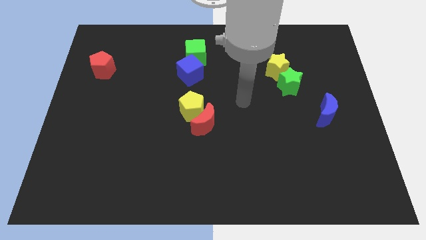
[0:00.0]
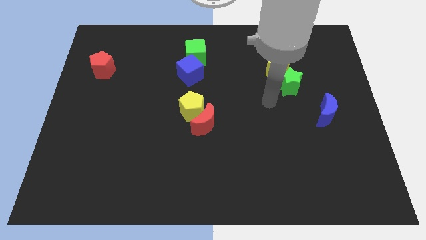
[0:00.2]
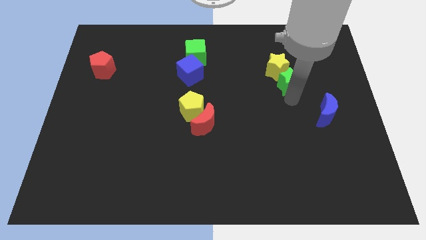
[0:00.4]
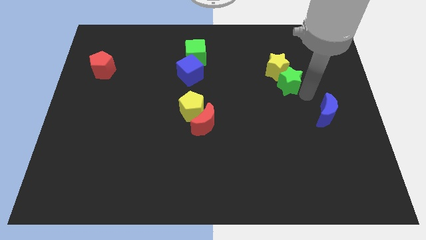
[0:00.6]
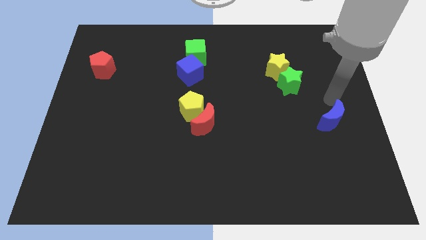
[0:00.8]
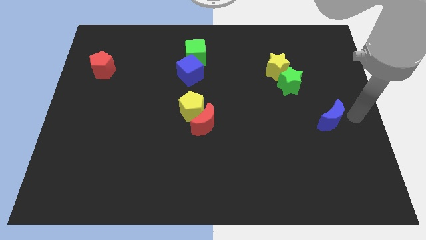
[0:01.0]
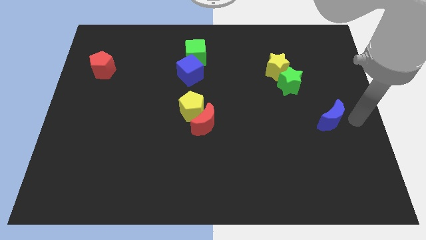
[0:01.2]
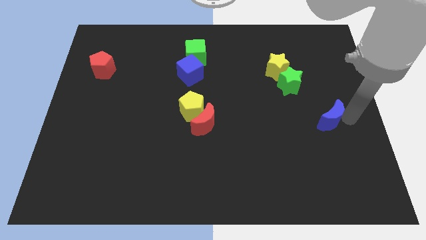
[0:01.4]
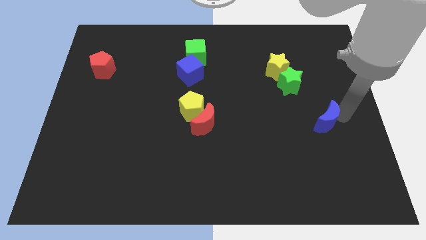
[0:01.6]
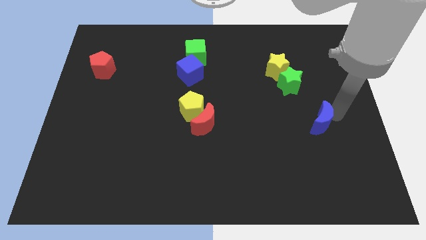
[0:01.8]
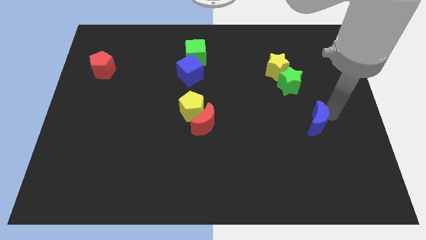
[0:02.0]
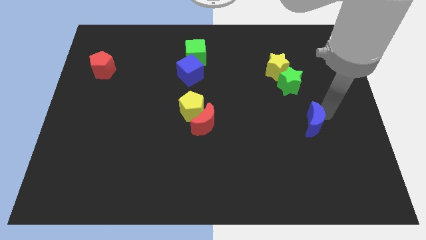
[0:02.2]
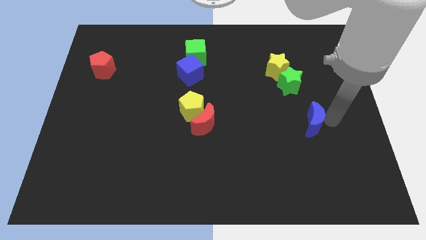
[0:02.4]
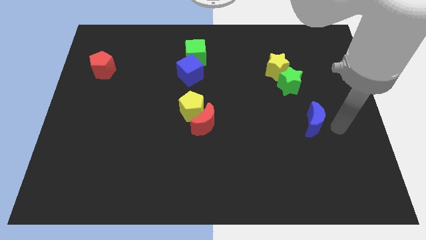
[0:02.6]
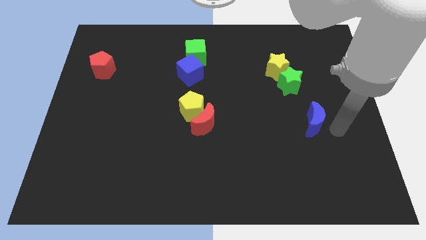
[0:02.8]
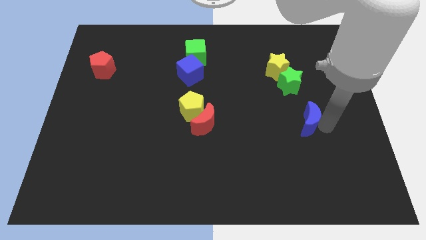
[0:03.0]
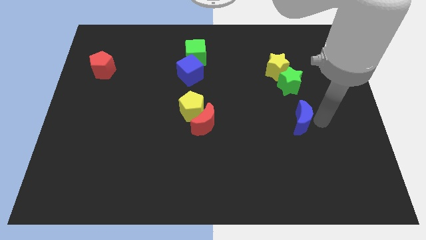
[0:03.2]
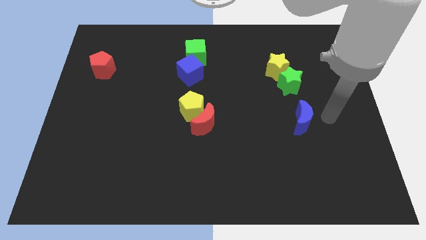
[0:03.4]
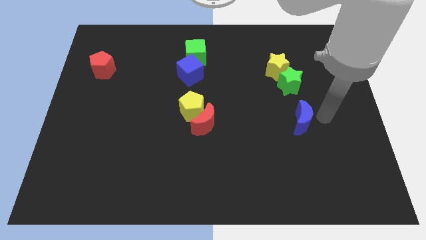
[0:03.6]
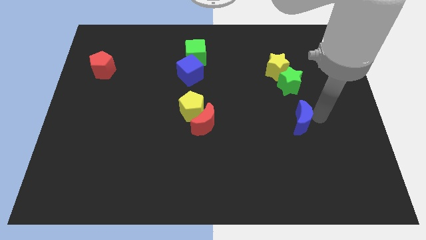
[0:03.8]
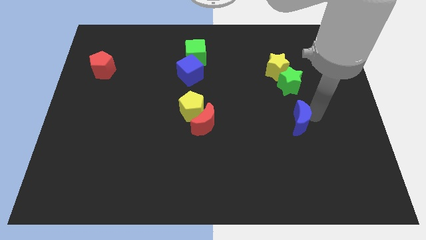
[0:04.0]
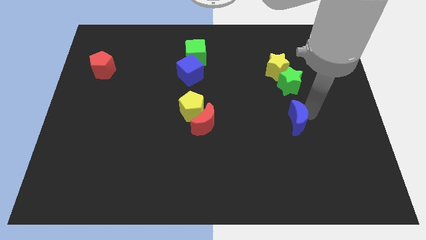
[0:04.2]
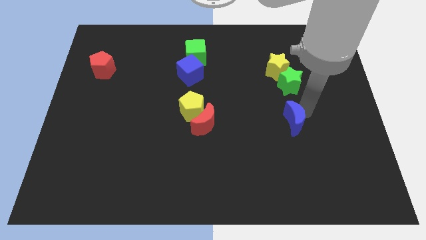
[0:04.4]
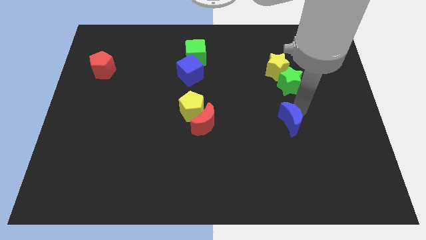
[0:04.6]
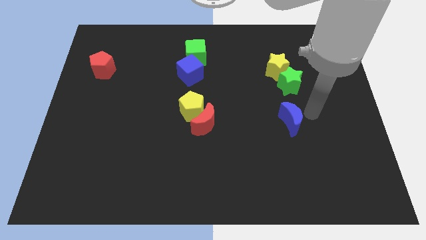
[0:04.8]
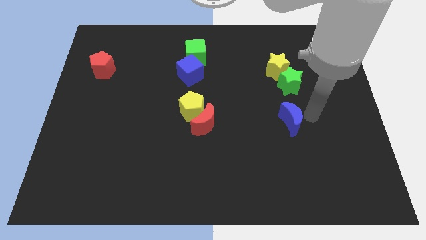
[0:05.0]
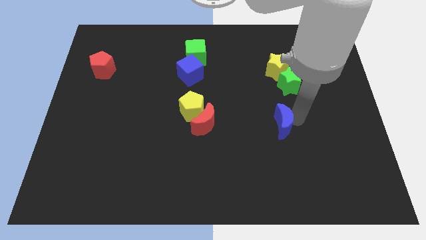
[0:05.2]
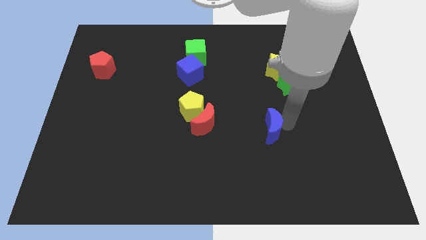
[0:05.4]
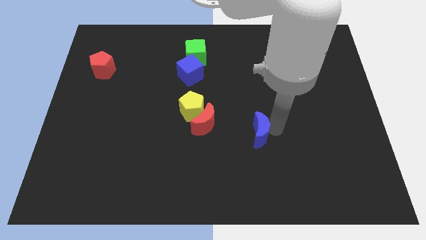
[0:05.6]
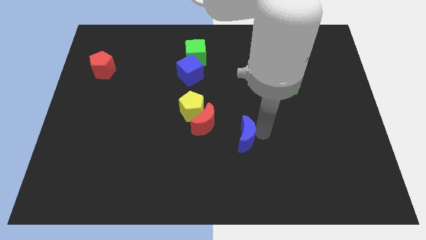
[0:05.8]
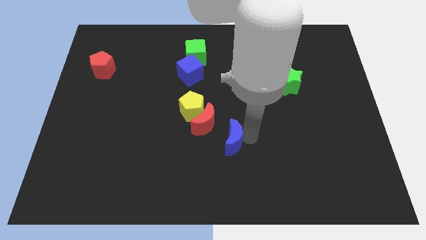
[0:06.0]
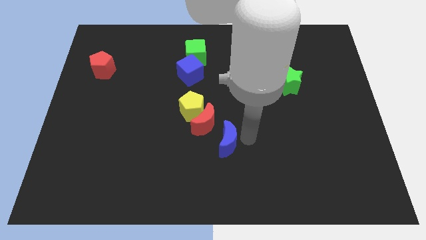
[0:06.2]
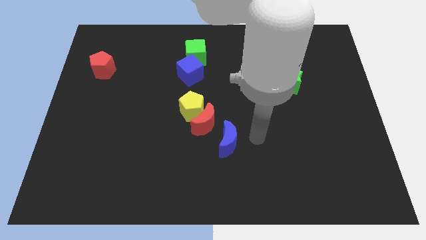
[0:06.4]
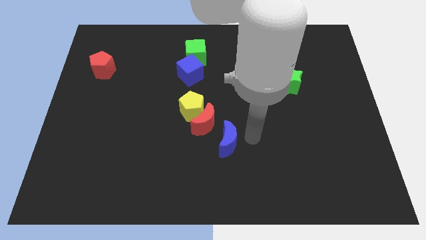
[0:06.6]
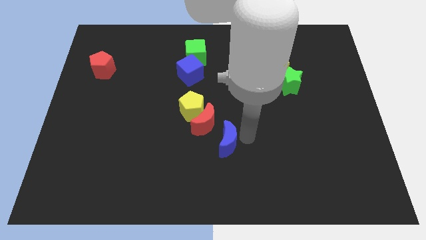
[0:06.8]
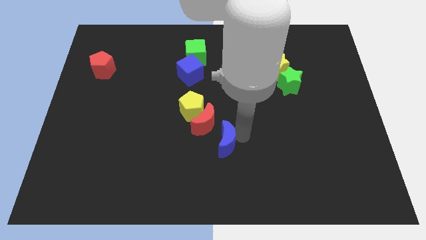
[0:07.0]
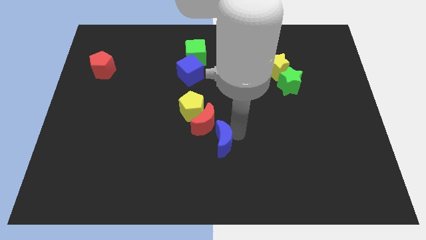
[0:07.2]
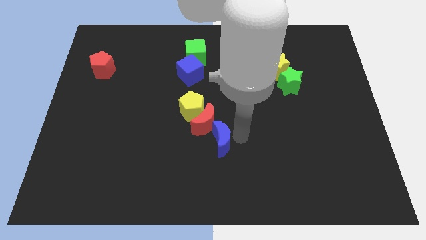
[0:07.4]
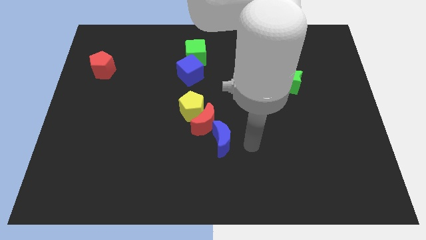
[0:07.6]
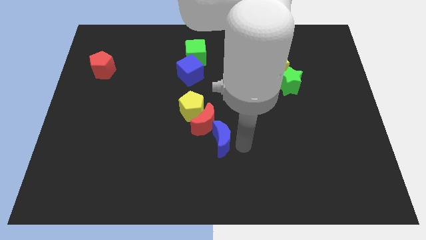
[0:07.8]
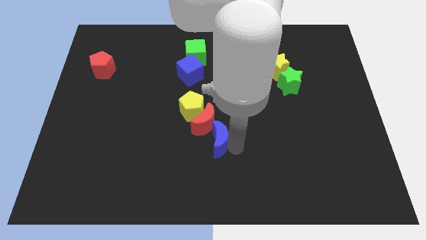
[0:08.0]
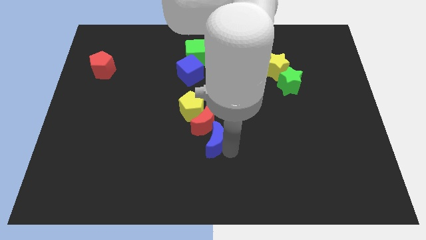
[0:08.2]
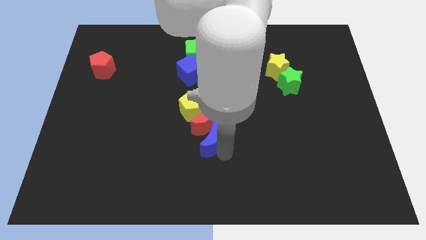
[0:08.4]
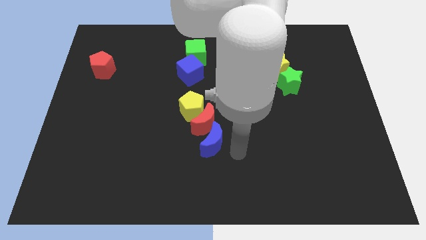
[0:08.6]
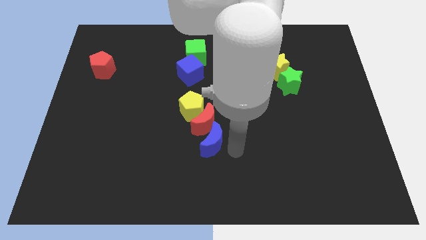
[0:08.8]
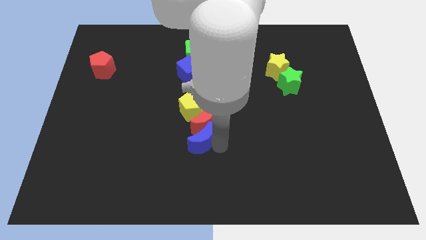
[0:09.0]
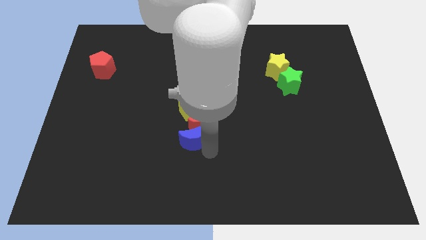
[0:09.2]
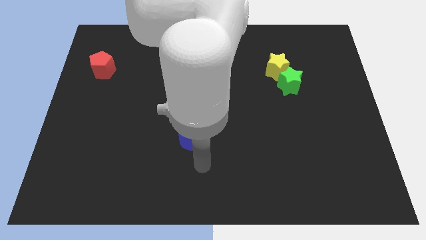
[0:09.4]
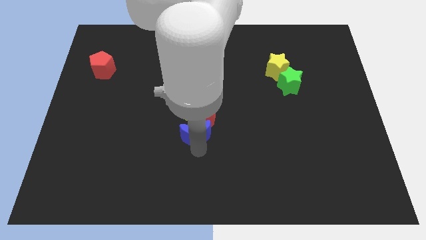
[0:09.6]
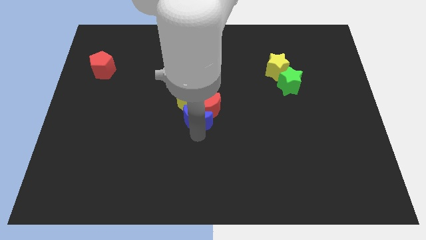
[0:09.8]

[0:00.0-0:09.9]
put the blue moon below the blue cube

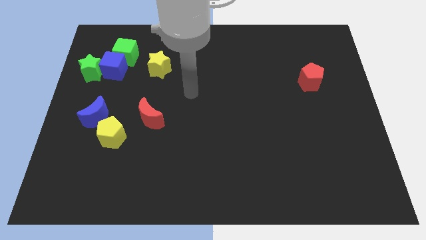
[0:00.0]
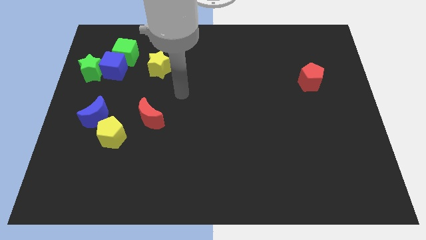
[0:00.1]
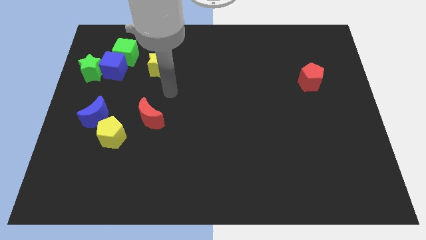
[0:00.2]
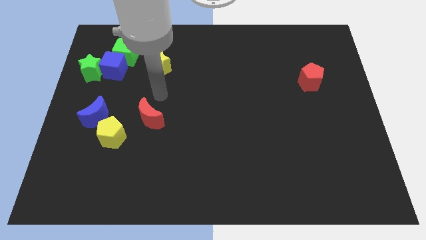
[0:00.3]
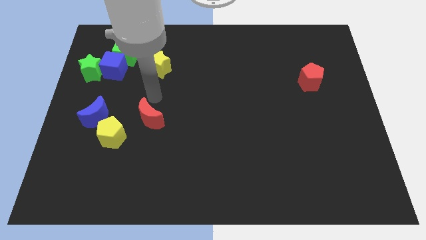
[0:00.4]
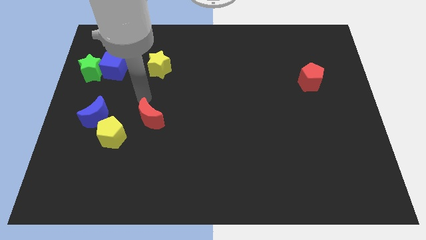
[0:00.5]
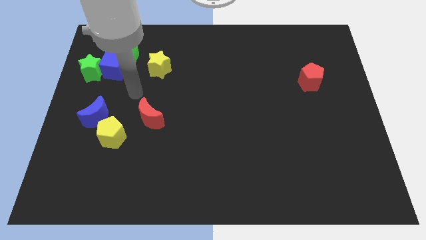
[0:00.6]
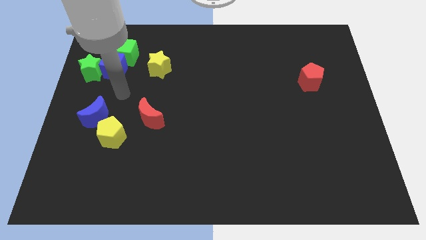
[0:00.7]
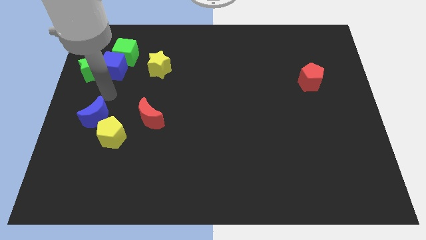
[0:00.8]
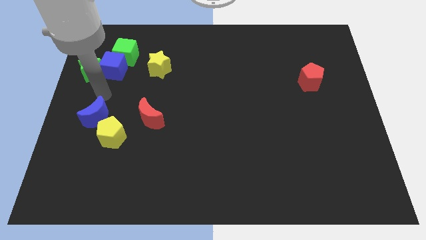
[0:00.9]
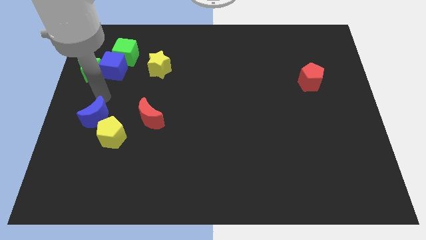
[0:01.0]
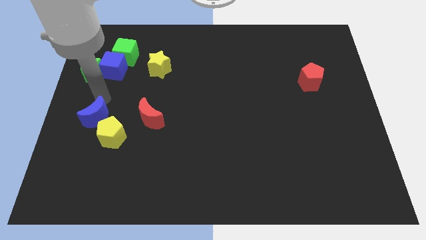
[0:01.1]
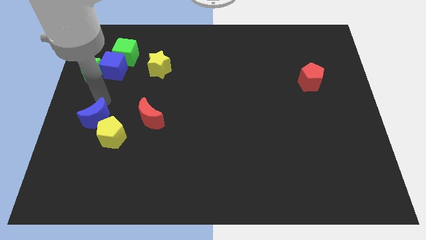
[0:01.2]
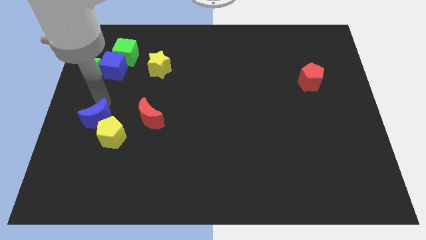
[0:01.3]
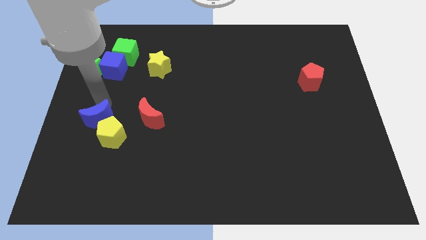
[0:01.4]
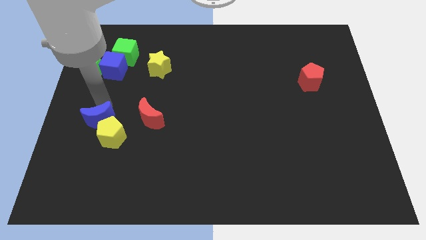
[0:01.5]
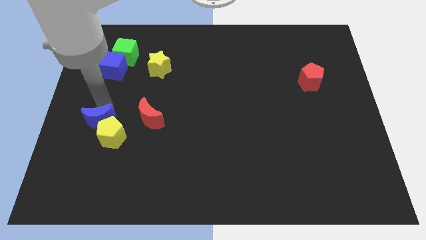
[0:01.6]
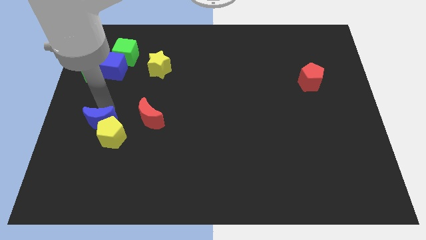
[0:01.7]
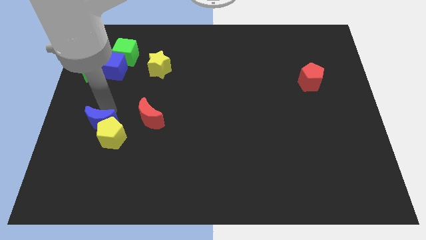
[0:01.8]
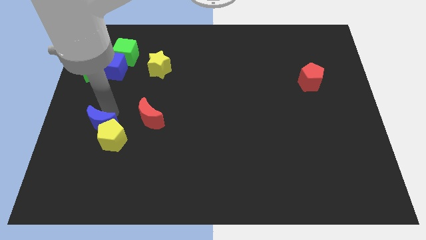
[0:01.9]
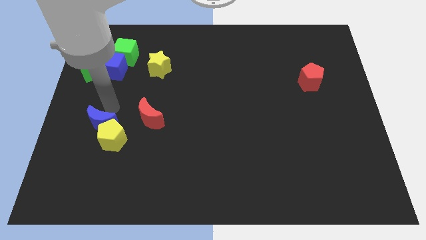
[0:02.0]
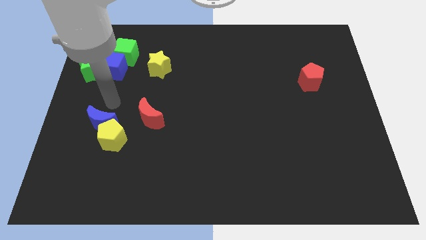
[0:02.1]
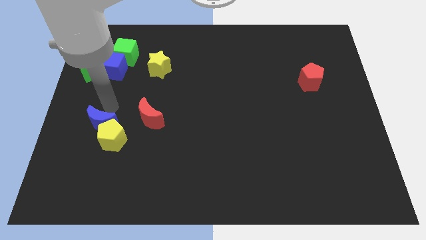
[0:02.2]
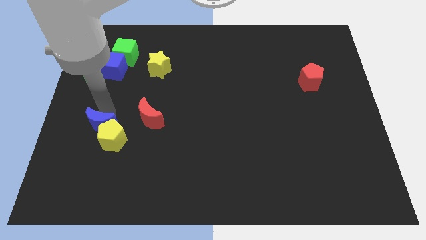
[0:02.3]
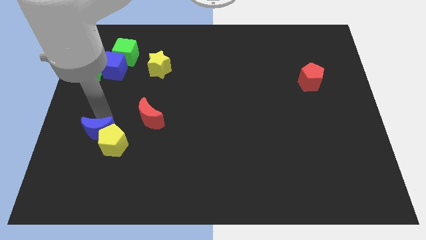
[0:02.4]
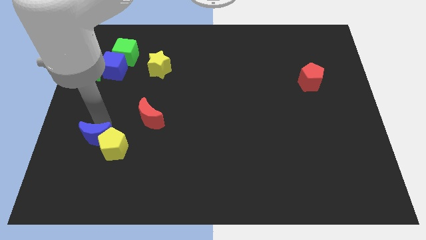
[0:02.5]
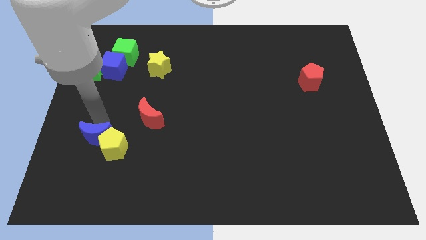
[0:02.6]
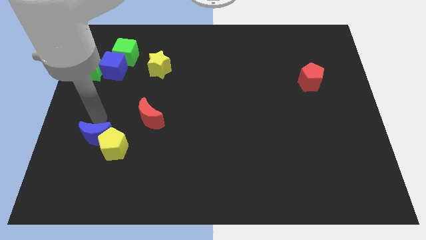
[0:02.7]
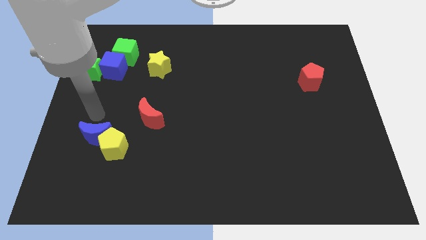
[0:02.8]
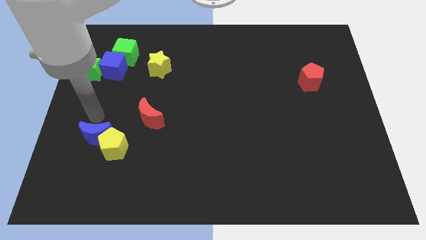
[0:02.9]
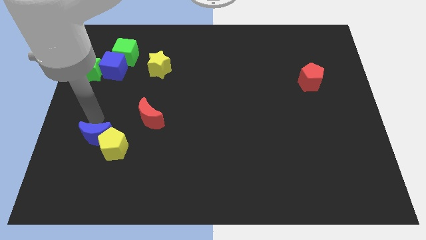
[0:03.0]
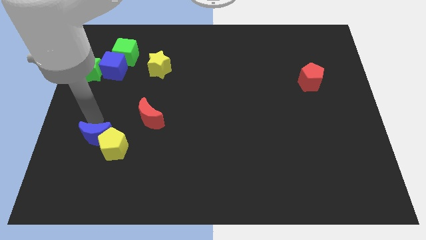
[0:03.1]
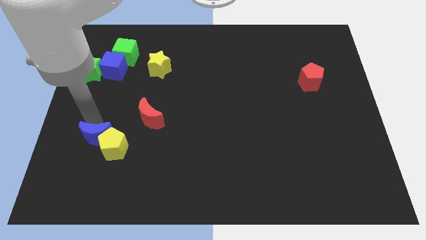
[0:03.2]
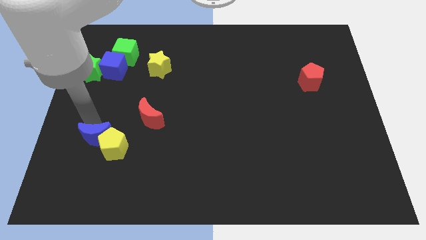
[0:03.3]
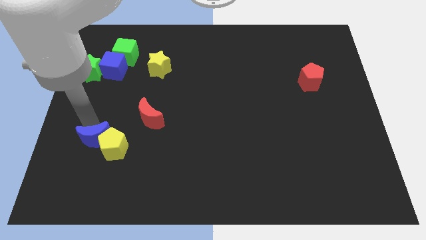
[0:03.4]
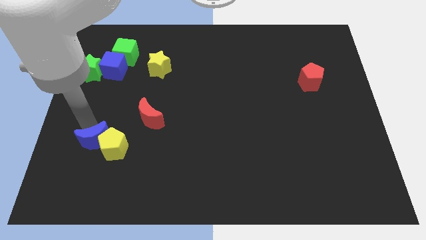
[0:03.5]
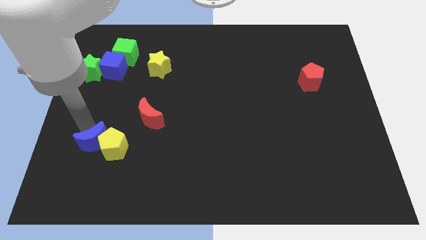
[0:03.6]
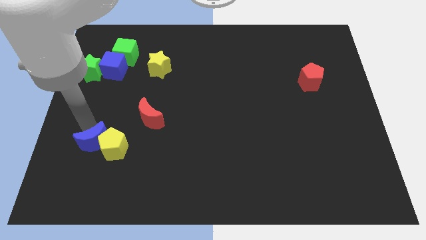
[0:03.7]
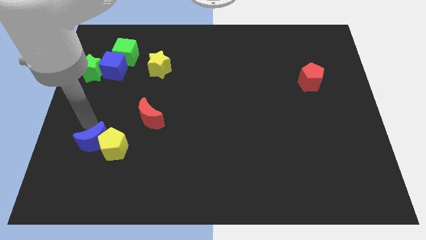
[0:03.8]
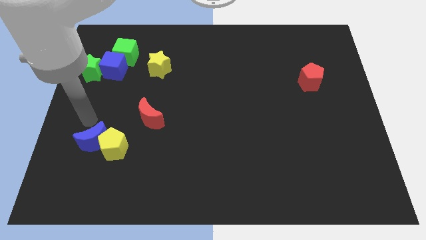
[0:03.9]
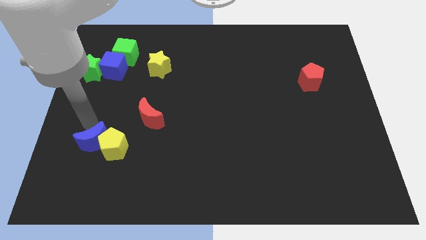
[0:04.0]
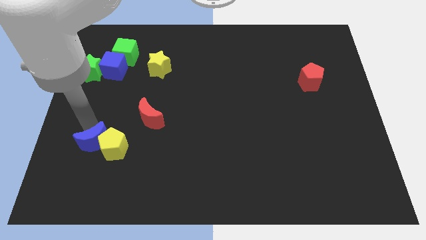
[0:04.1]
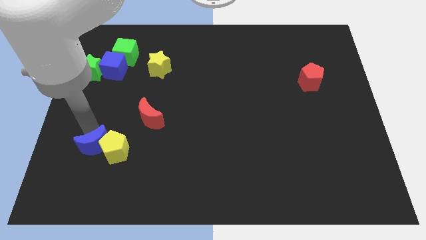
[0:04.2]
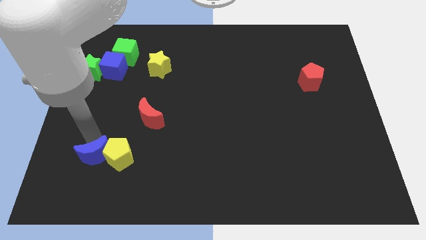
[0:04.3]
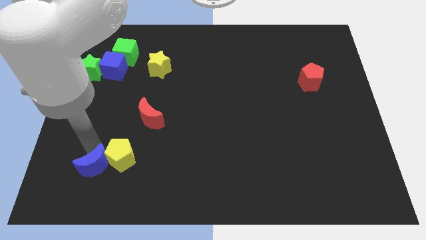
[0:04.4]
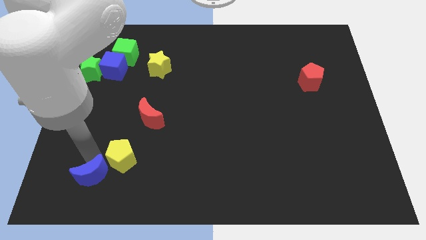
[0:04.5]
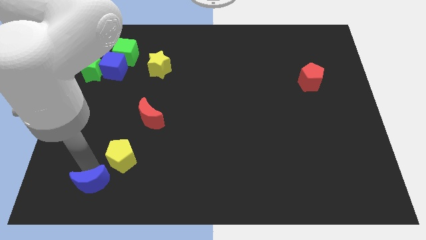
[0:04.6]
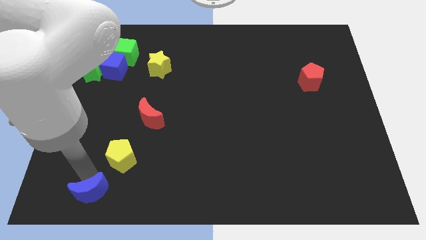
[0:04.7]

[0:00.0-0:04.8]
move the blue moon to the bottom of the yellow pentagon
